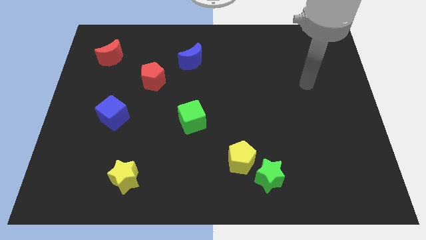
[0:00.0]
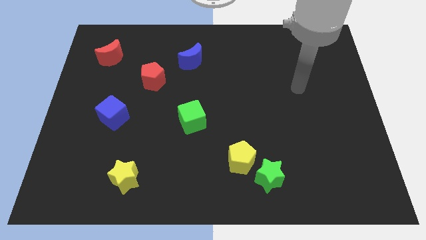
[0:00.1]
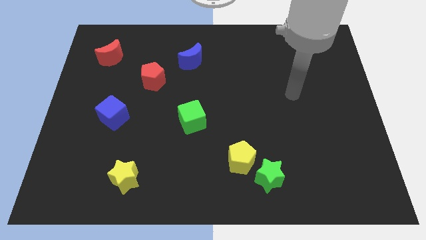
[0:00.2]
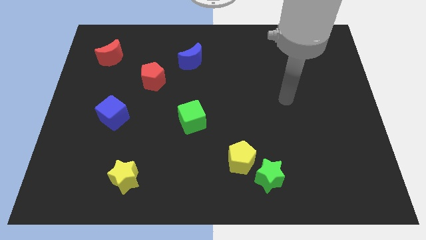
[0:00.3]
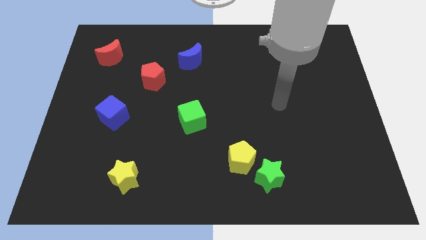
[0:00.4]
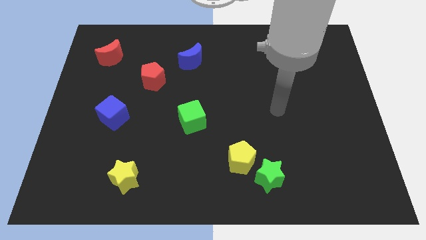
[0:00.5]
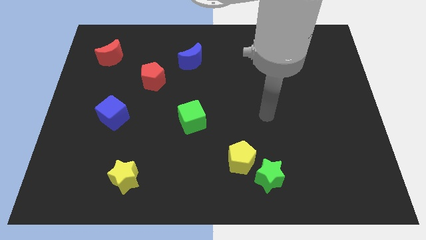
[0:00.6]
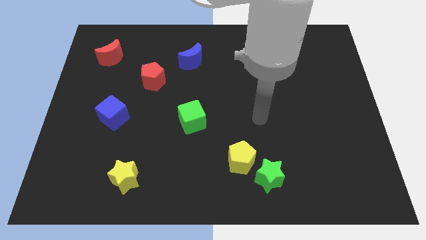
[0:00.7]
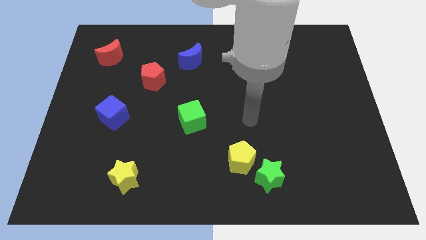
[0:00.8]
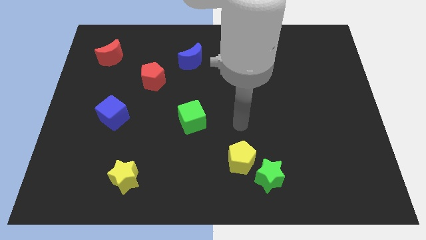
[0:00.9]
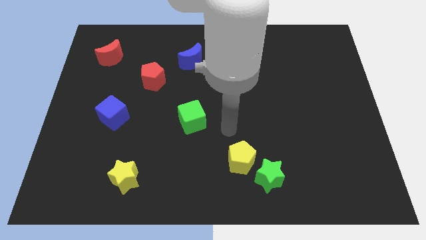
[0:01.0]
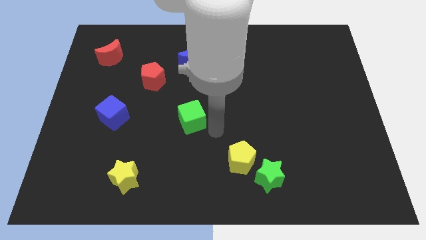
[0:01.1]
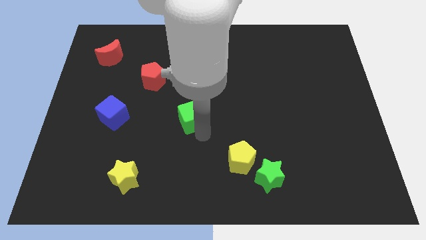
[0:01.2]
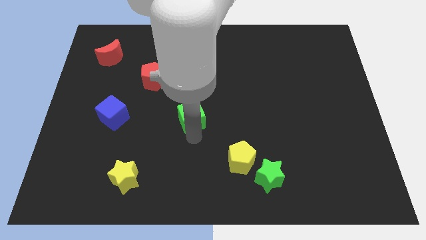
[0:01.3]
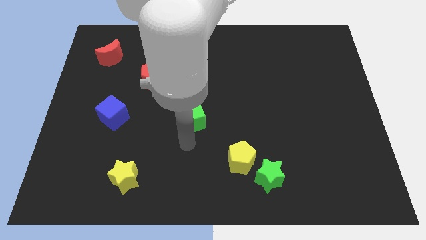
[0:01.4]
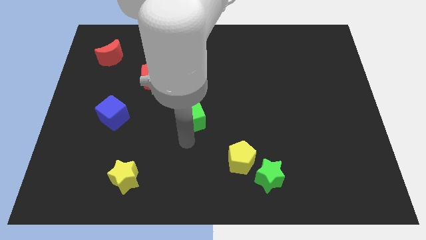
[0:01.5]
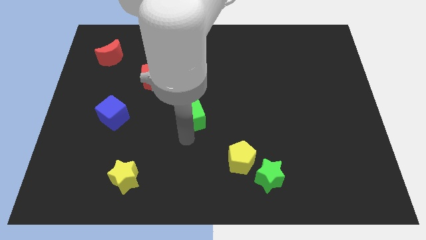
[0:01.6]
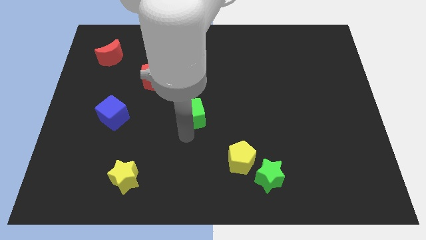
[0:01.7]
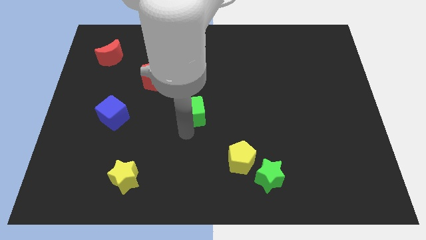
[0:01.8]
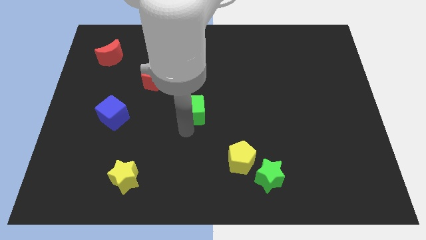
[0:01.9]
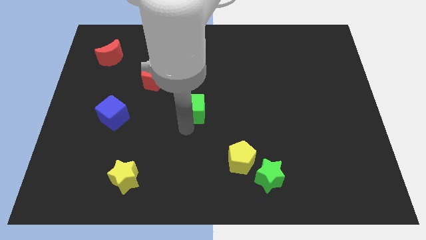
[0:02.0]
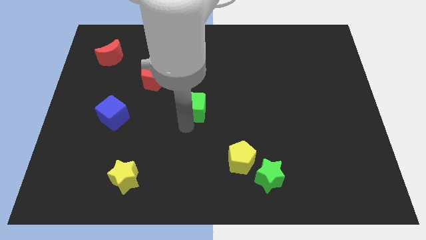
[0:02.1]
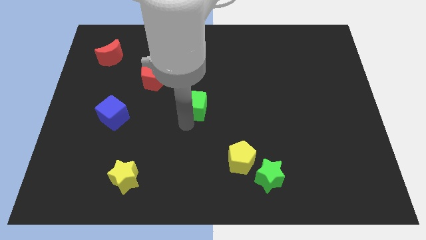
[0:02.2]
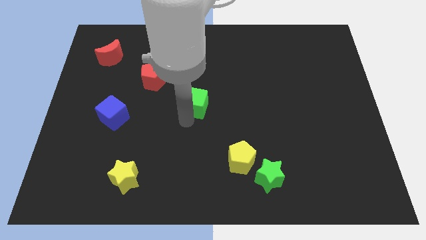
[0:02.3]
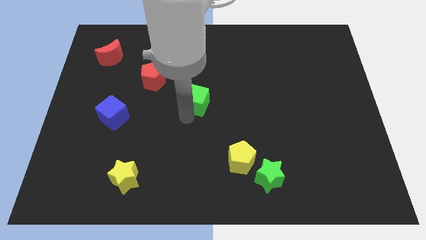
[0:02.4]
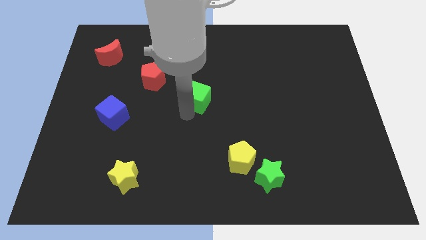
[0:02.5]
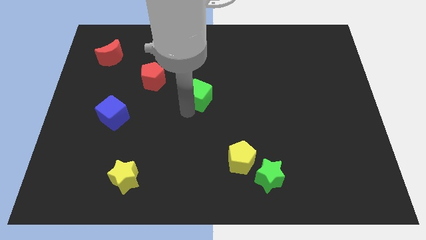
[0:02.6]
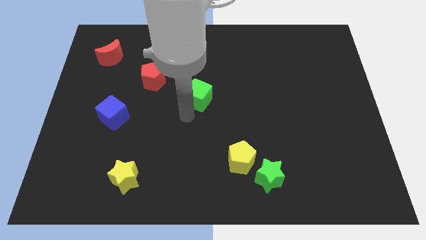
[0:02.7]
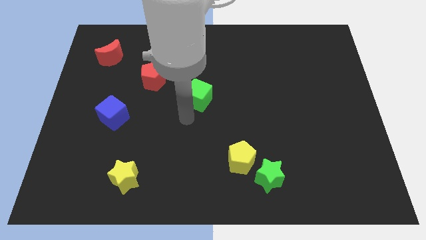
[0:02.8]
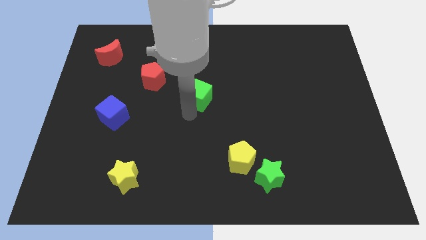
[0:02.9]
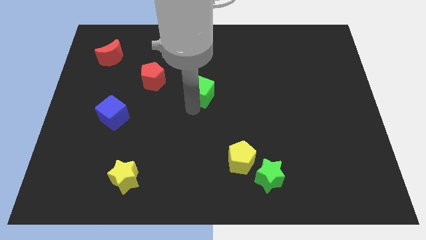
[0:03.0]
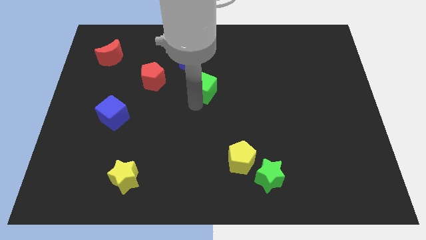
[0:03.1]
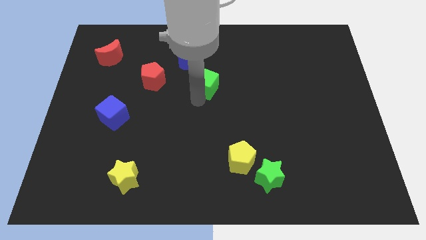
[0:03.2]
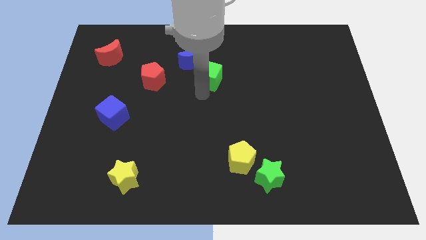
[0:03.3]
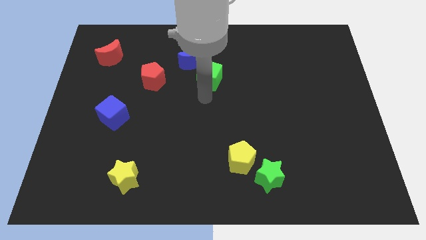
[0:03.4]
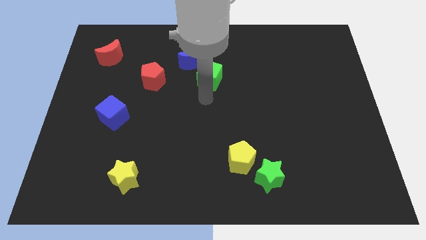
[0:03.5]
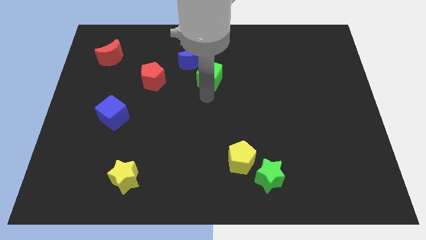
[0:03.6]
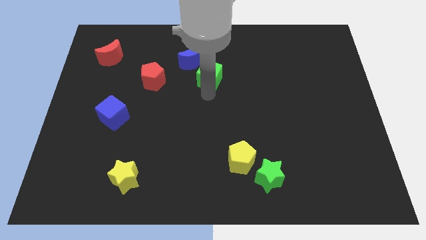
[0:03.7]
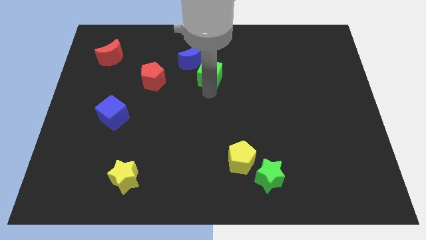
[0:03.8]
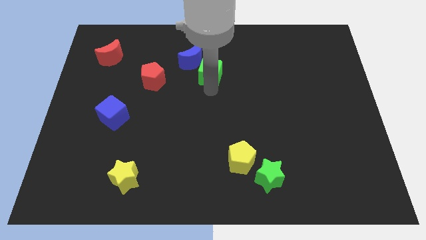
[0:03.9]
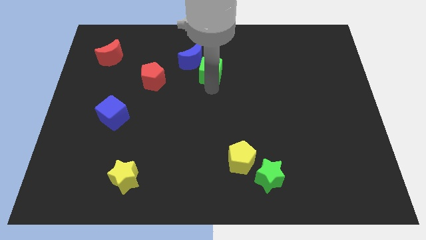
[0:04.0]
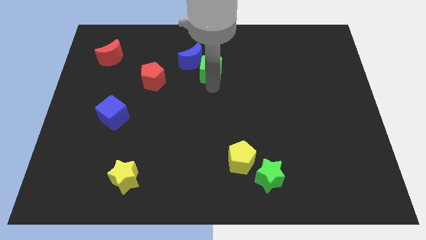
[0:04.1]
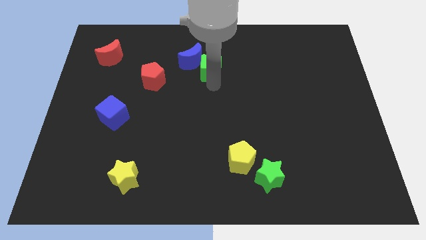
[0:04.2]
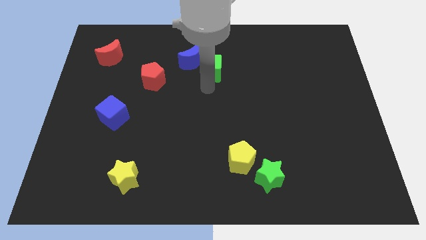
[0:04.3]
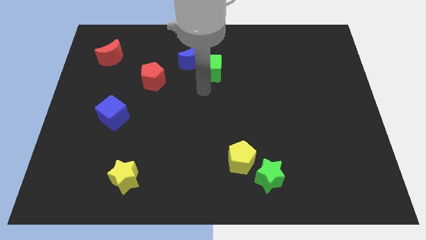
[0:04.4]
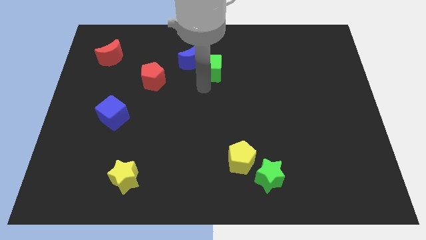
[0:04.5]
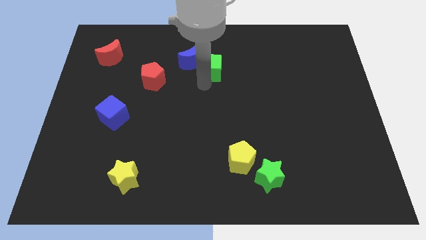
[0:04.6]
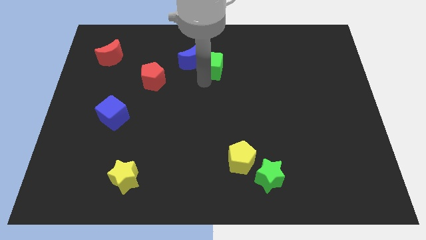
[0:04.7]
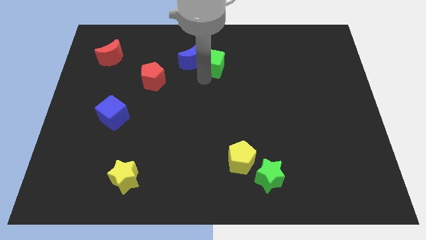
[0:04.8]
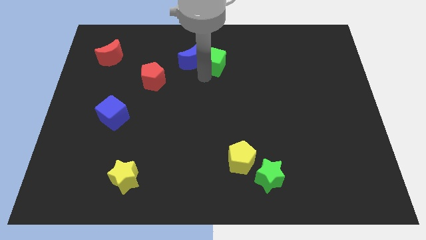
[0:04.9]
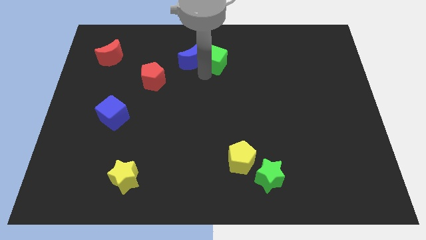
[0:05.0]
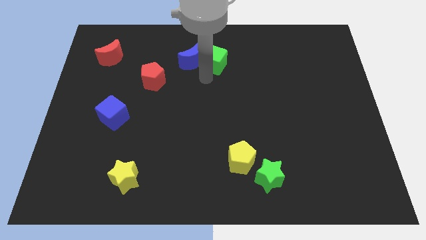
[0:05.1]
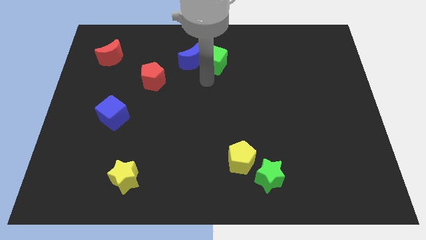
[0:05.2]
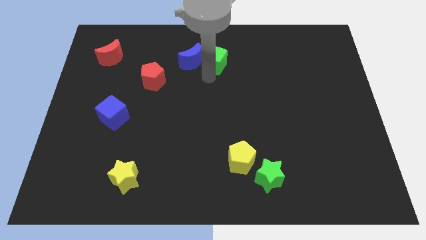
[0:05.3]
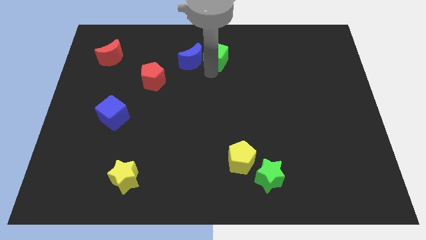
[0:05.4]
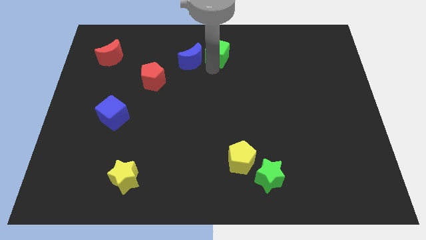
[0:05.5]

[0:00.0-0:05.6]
slide the green cube to the top side

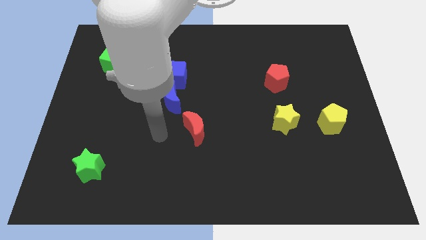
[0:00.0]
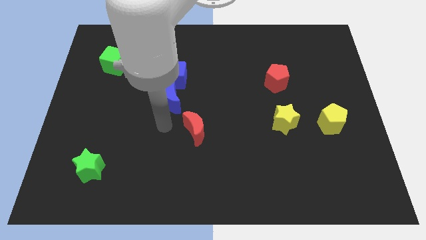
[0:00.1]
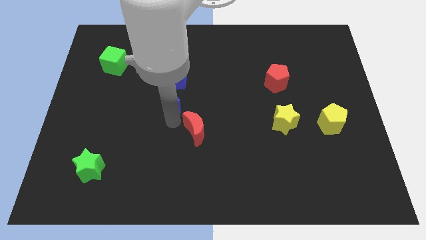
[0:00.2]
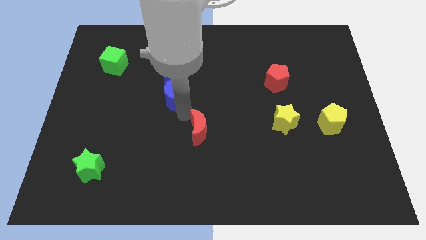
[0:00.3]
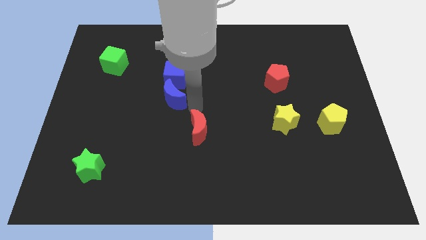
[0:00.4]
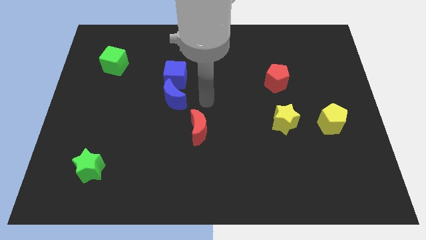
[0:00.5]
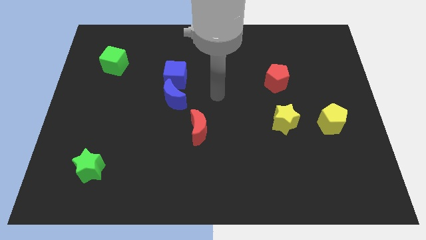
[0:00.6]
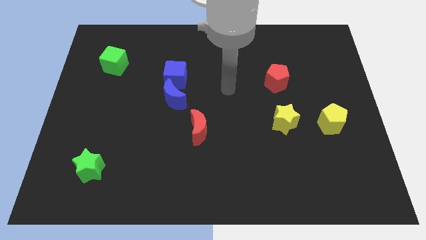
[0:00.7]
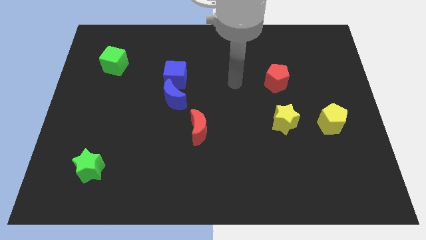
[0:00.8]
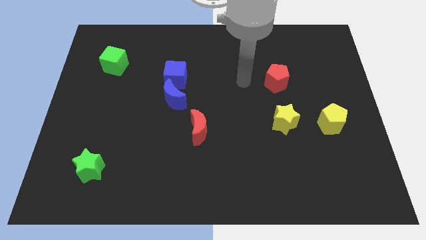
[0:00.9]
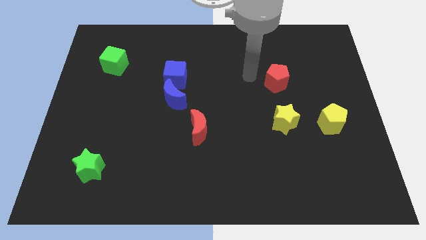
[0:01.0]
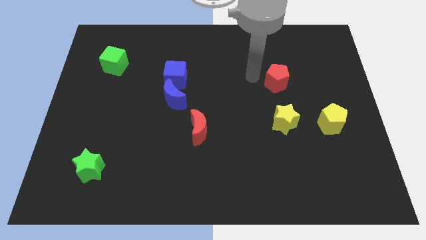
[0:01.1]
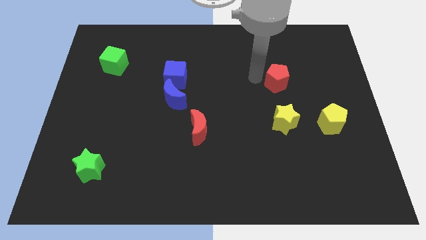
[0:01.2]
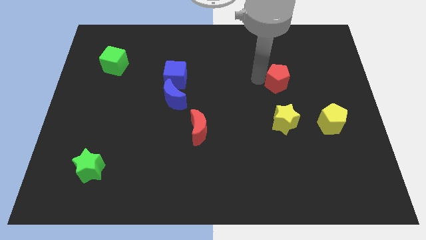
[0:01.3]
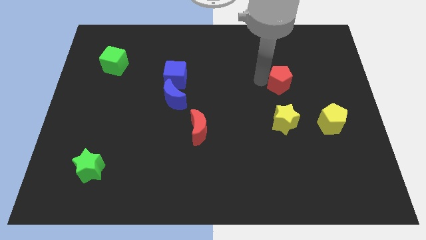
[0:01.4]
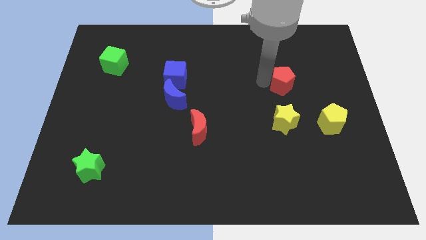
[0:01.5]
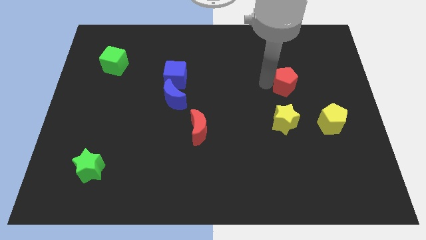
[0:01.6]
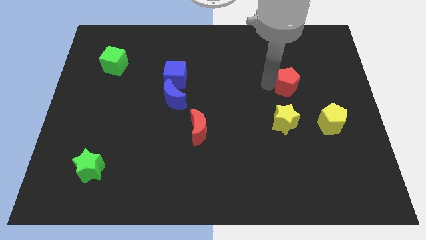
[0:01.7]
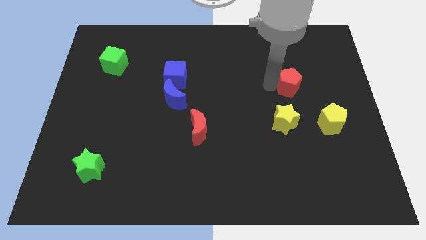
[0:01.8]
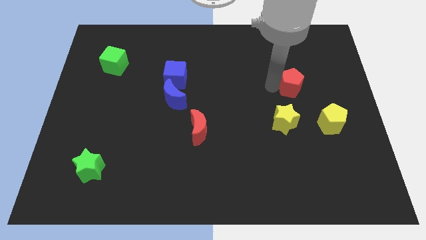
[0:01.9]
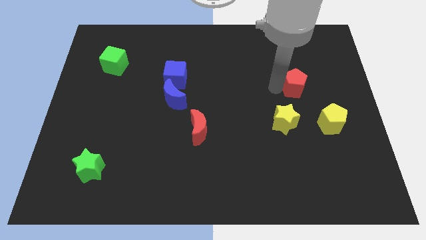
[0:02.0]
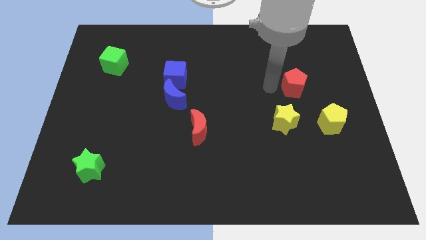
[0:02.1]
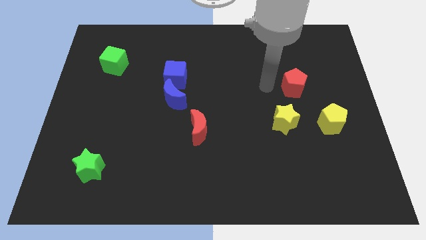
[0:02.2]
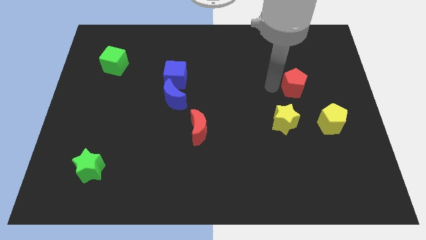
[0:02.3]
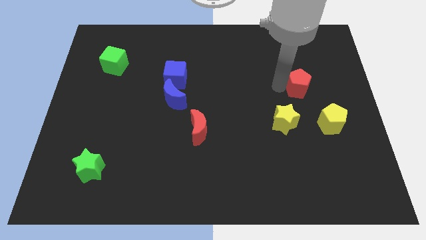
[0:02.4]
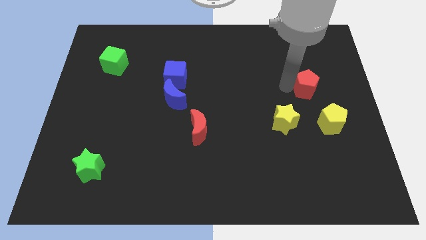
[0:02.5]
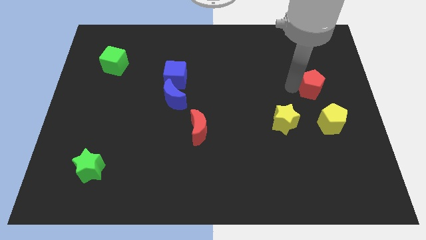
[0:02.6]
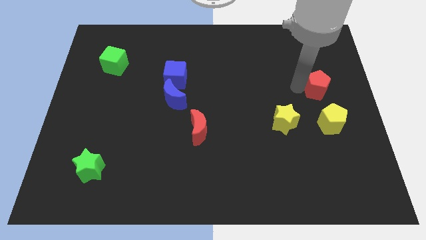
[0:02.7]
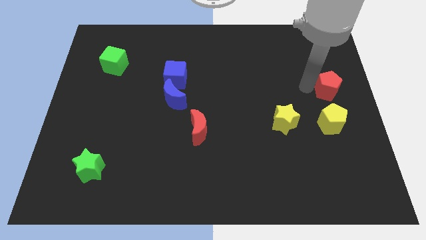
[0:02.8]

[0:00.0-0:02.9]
move the red pentagon to the center right
